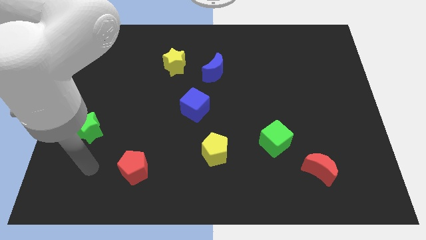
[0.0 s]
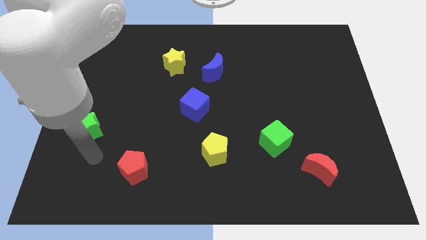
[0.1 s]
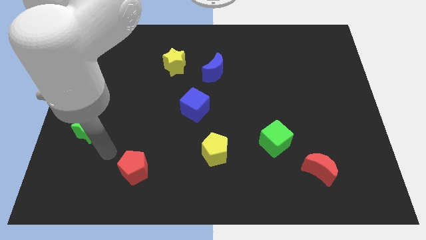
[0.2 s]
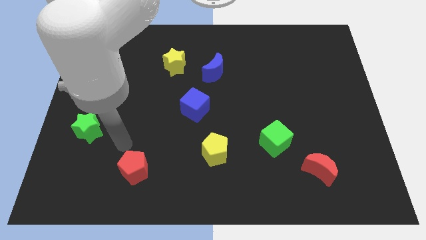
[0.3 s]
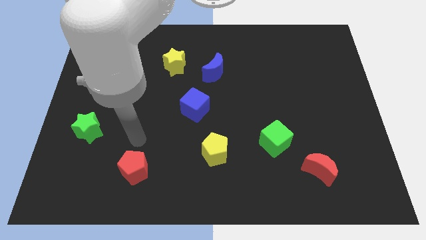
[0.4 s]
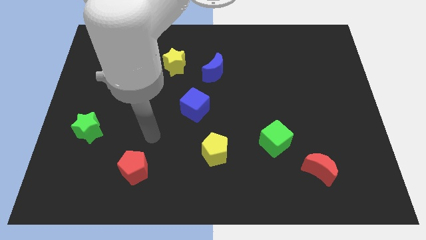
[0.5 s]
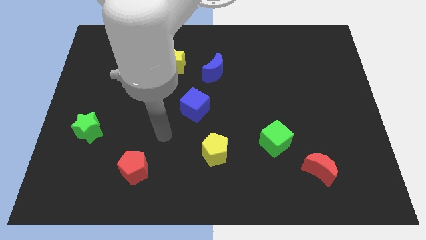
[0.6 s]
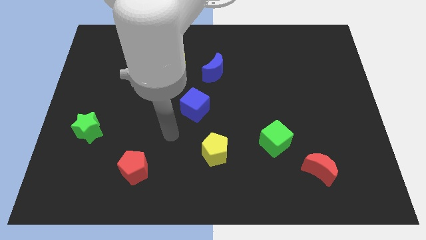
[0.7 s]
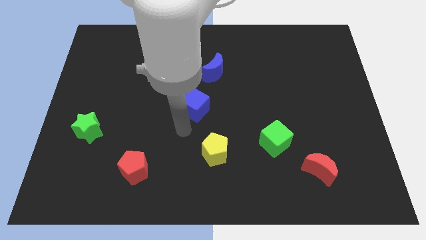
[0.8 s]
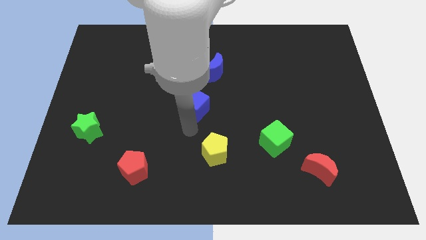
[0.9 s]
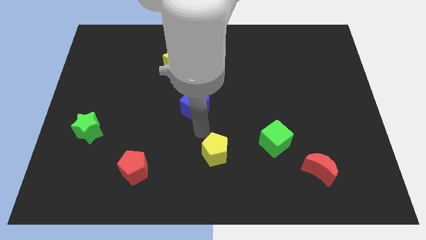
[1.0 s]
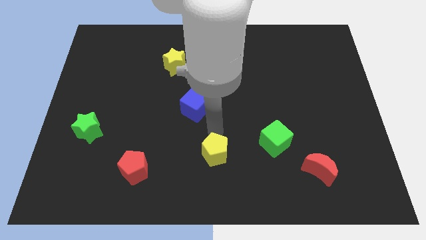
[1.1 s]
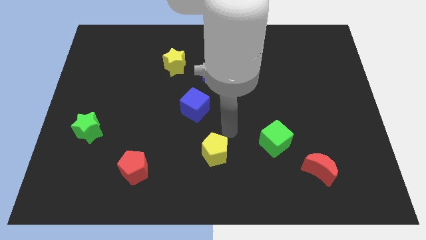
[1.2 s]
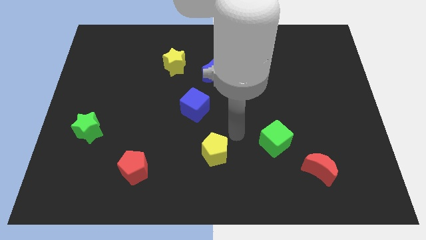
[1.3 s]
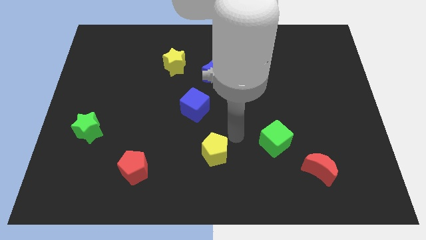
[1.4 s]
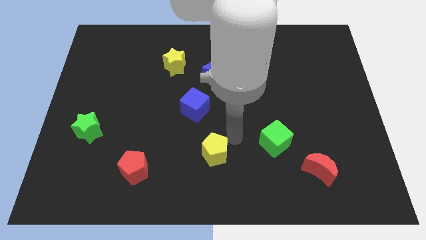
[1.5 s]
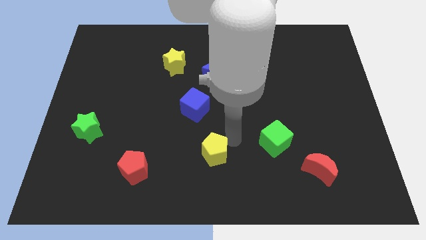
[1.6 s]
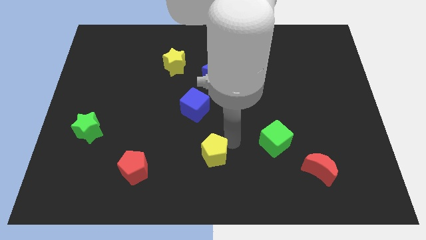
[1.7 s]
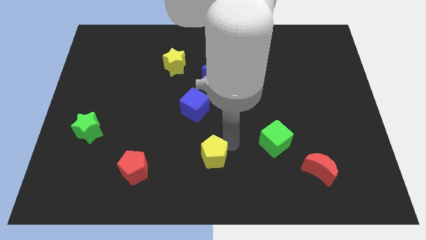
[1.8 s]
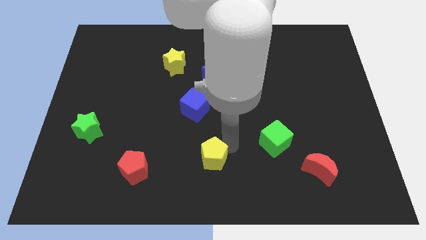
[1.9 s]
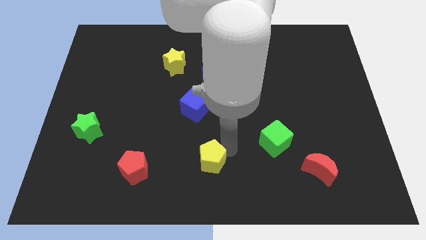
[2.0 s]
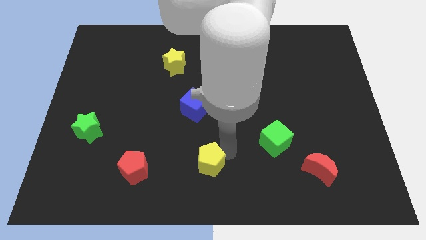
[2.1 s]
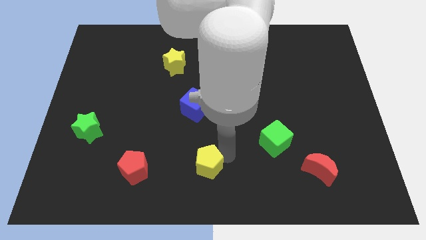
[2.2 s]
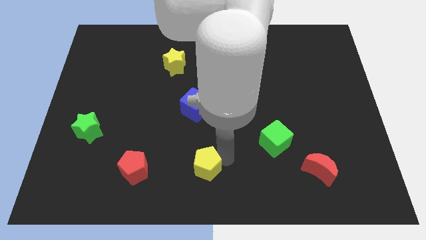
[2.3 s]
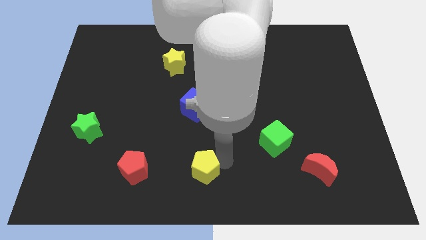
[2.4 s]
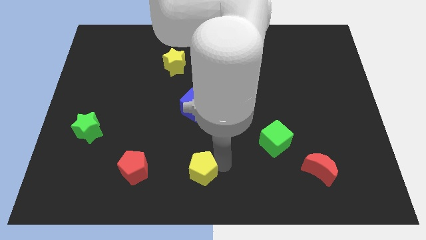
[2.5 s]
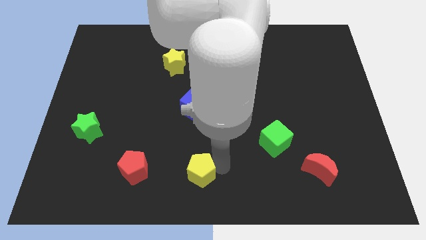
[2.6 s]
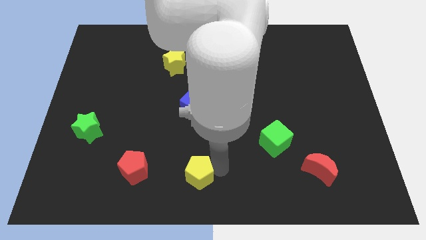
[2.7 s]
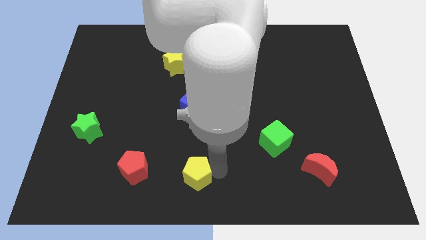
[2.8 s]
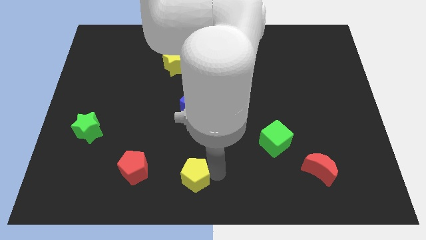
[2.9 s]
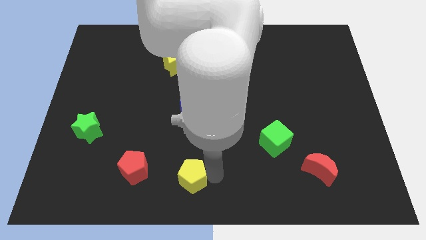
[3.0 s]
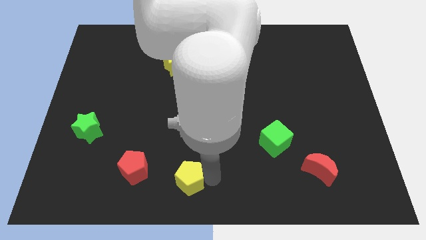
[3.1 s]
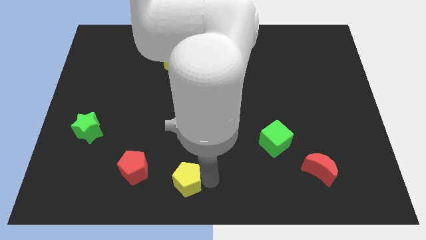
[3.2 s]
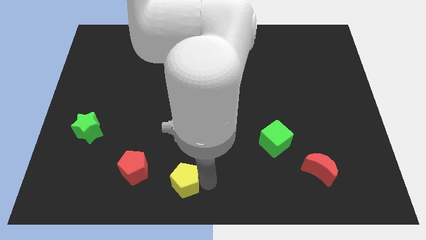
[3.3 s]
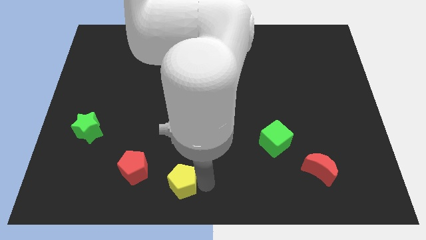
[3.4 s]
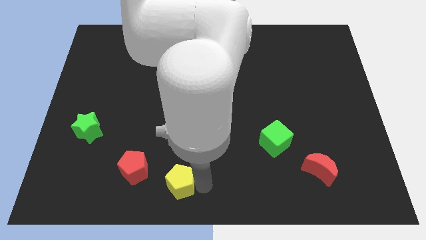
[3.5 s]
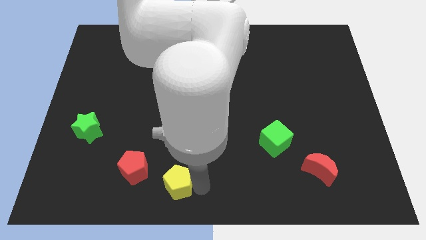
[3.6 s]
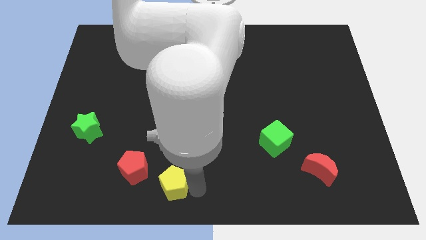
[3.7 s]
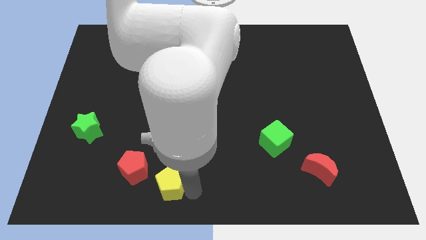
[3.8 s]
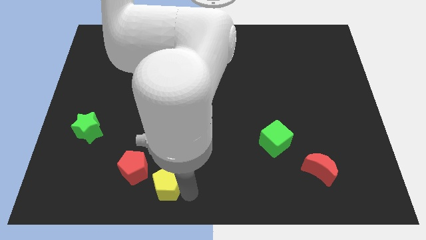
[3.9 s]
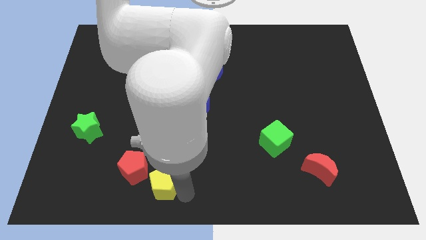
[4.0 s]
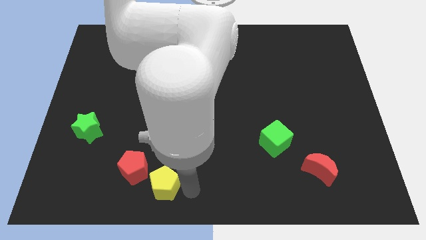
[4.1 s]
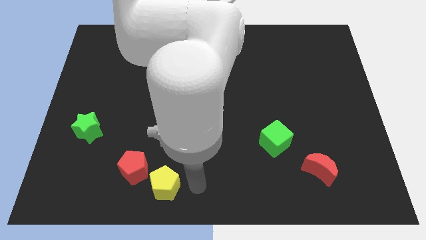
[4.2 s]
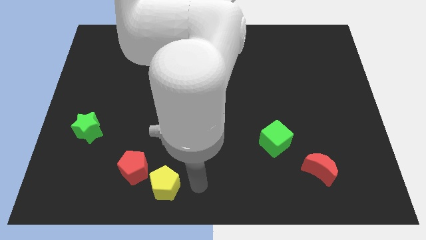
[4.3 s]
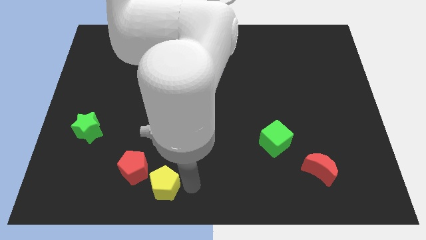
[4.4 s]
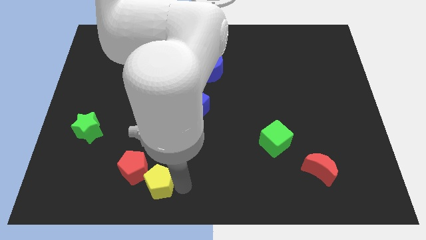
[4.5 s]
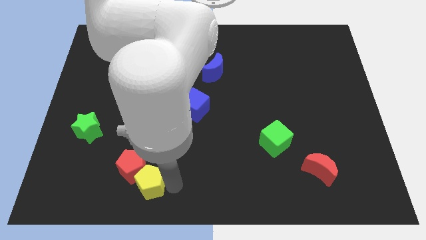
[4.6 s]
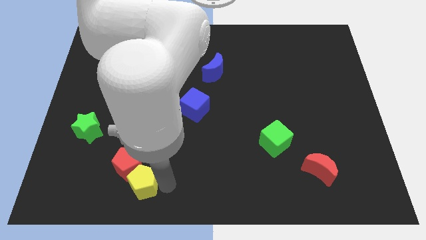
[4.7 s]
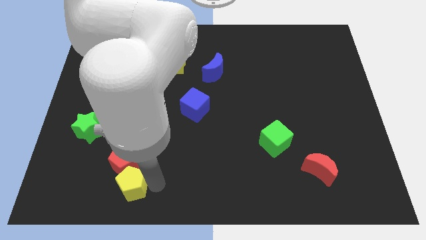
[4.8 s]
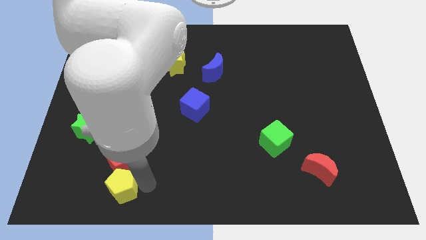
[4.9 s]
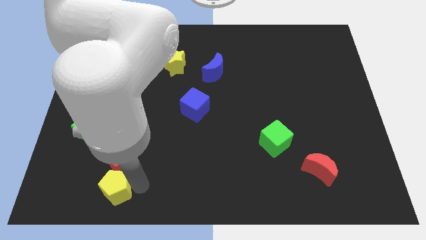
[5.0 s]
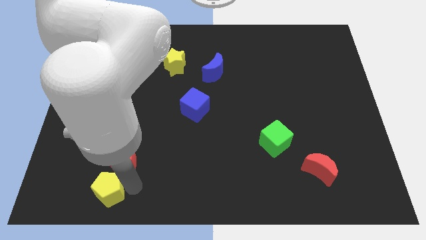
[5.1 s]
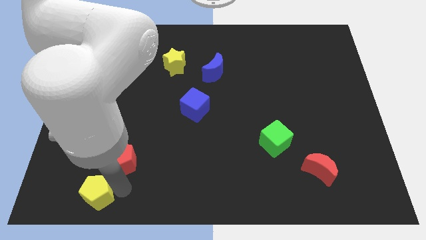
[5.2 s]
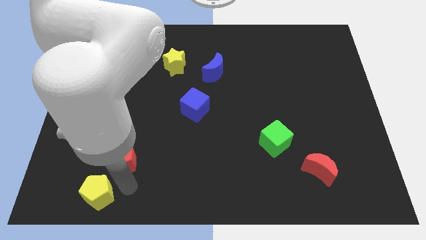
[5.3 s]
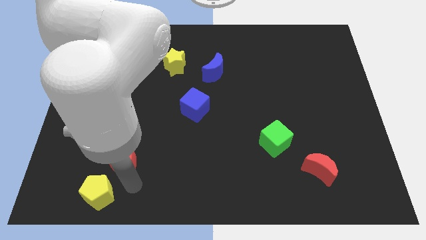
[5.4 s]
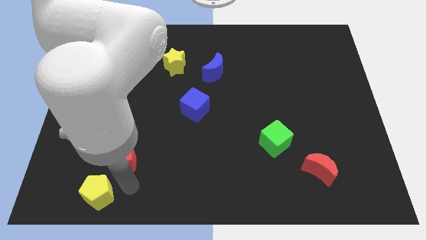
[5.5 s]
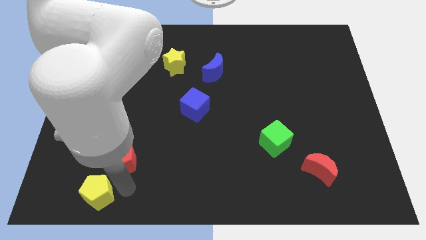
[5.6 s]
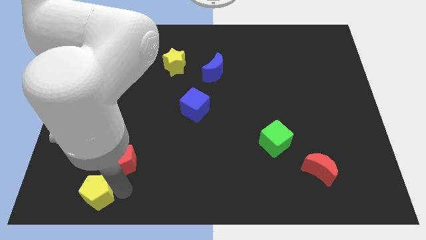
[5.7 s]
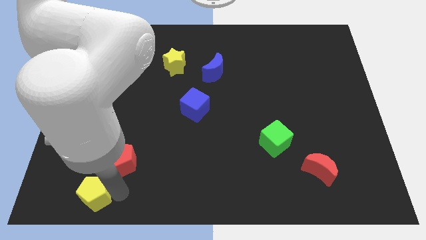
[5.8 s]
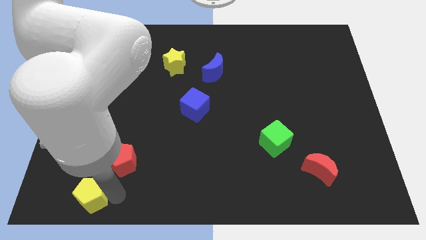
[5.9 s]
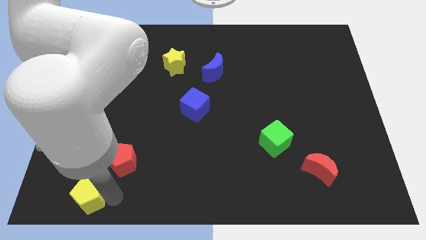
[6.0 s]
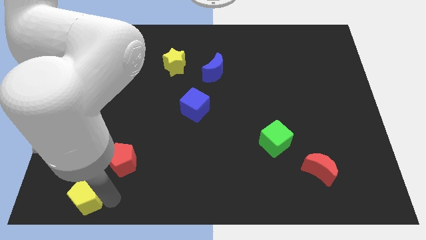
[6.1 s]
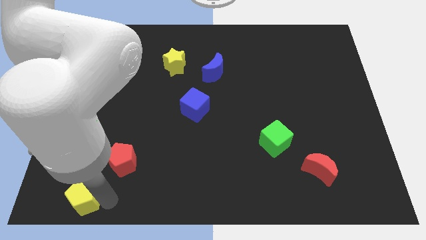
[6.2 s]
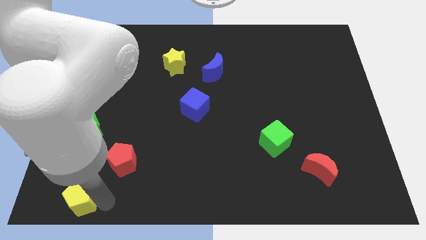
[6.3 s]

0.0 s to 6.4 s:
move the yellow pentagon to the bottom left of the board
